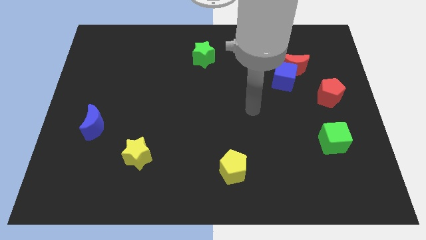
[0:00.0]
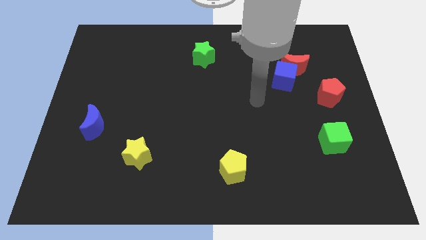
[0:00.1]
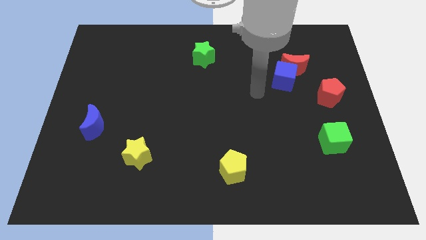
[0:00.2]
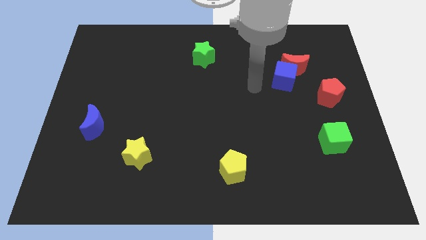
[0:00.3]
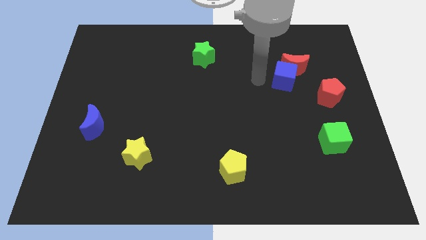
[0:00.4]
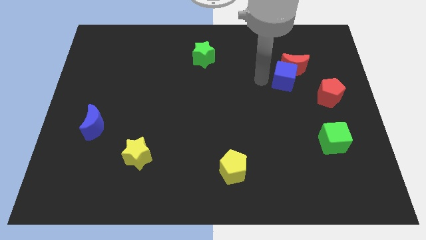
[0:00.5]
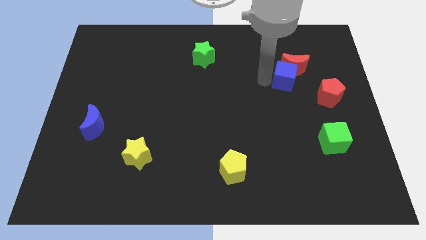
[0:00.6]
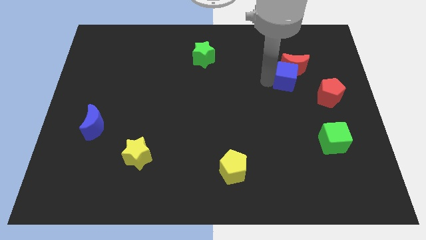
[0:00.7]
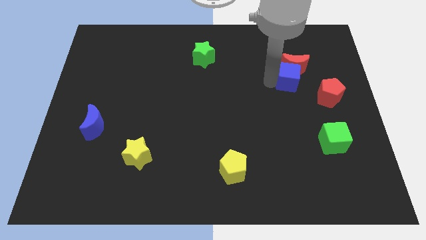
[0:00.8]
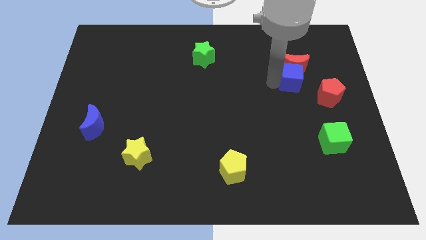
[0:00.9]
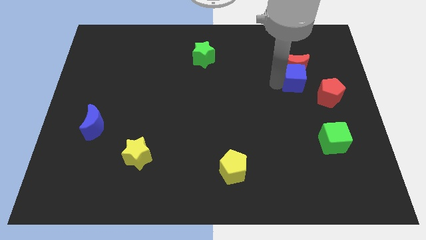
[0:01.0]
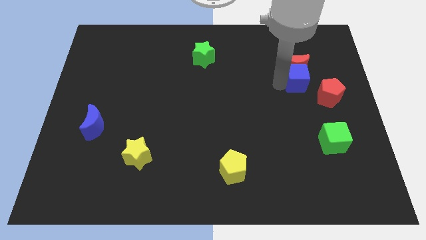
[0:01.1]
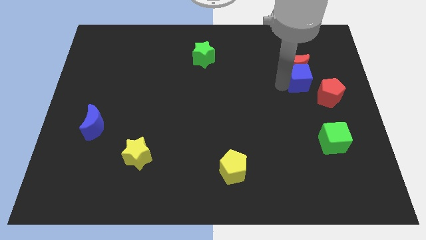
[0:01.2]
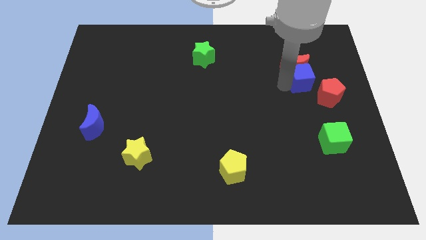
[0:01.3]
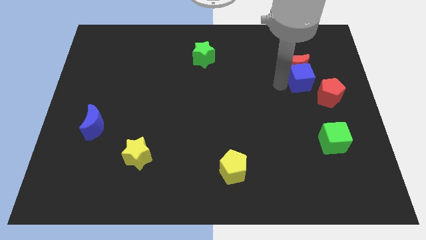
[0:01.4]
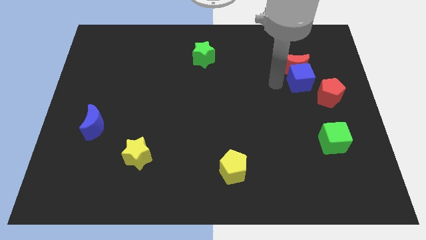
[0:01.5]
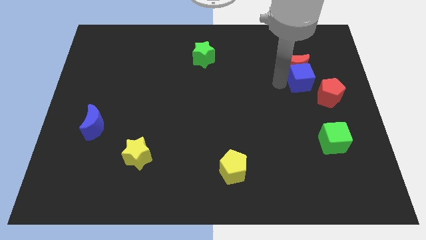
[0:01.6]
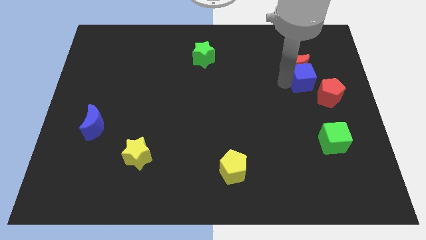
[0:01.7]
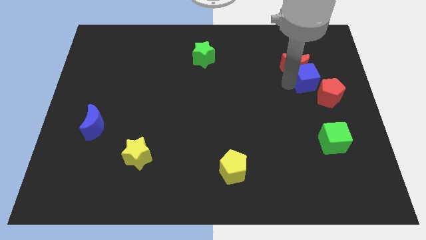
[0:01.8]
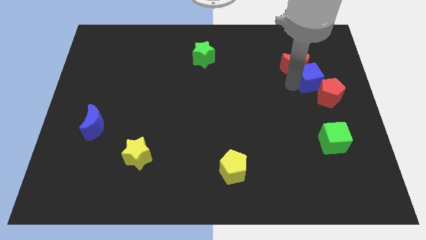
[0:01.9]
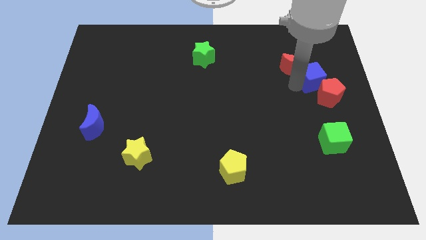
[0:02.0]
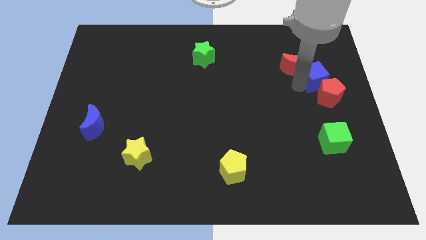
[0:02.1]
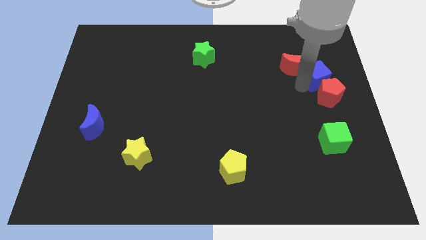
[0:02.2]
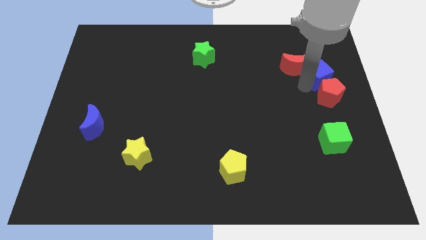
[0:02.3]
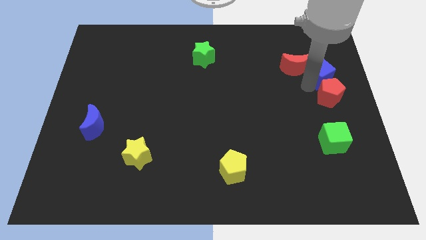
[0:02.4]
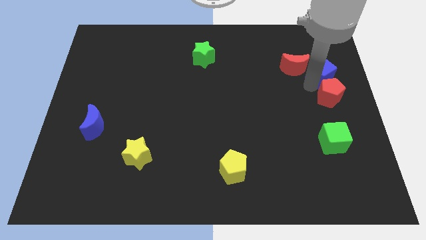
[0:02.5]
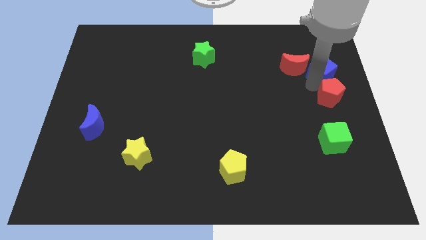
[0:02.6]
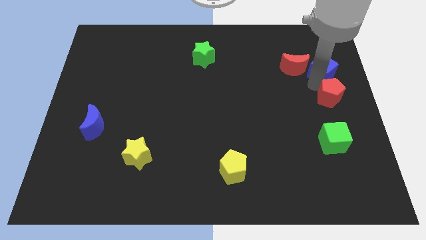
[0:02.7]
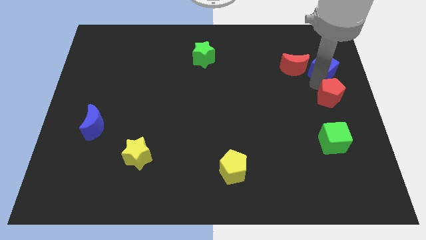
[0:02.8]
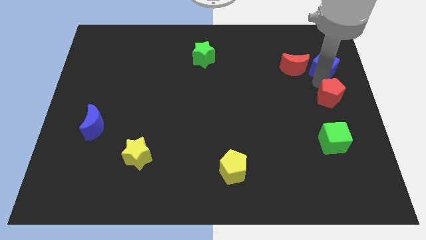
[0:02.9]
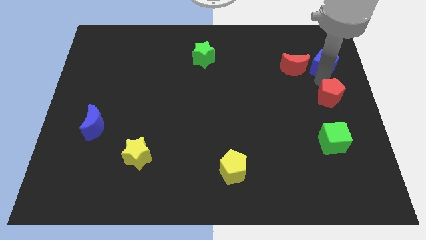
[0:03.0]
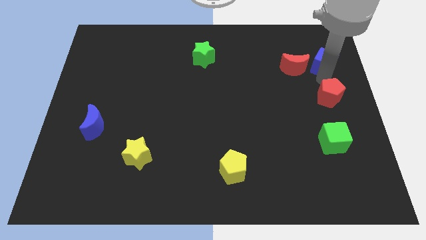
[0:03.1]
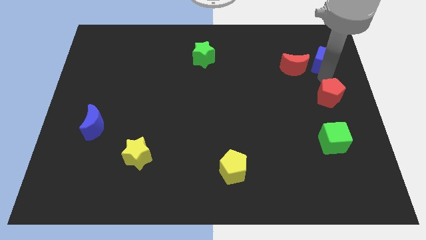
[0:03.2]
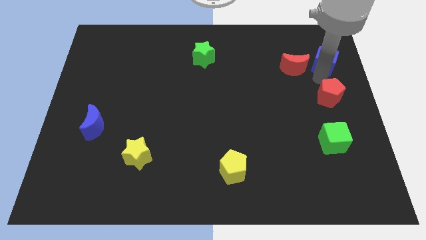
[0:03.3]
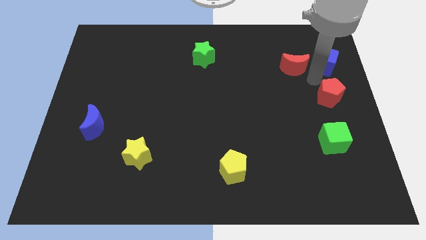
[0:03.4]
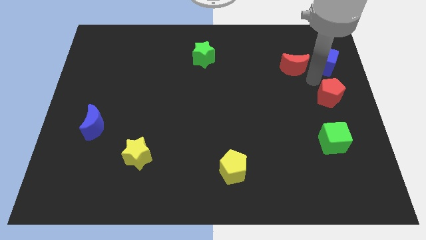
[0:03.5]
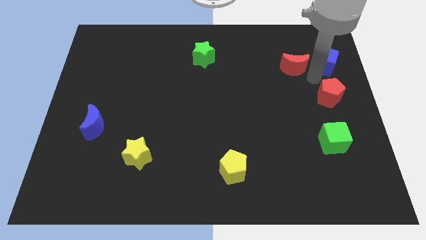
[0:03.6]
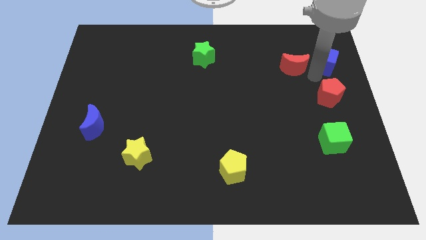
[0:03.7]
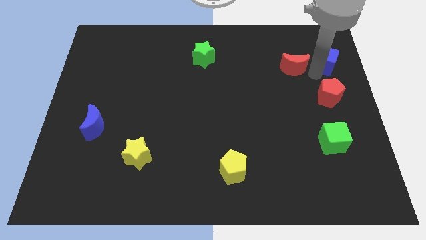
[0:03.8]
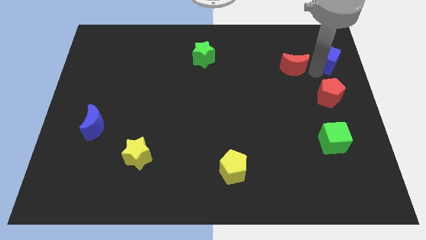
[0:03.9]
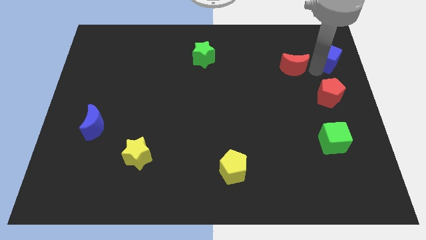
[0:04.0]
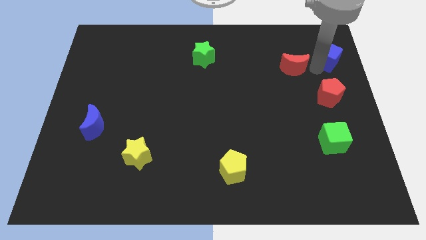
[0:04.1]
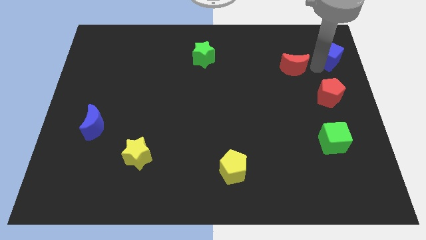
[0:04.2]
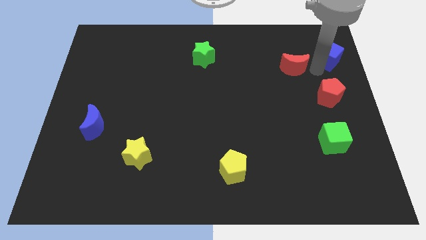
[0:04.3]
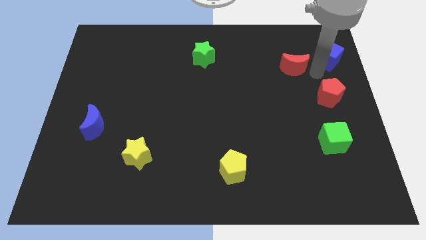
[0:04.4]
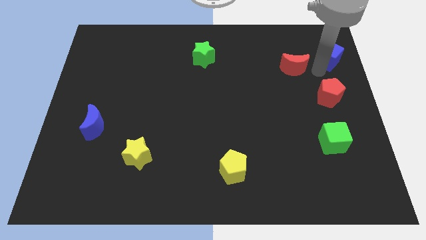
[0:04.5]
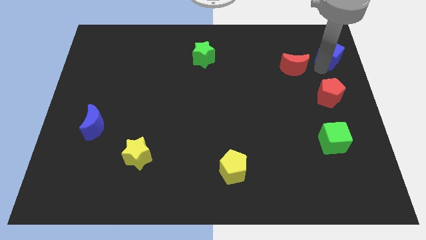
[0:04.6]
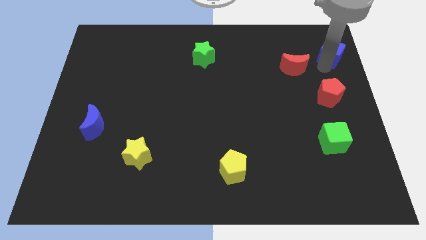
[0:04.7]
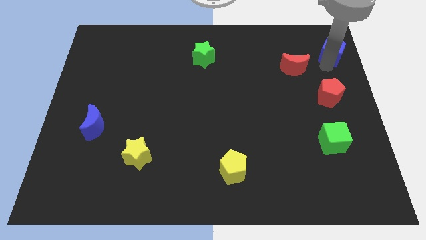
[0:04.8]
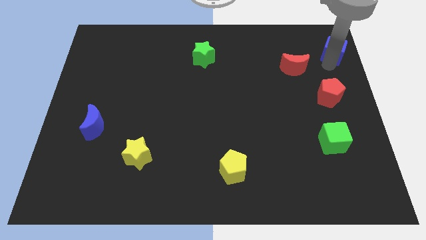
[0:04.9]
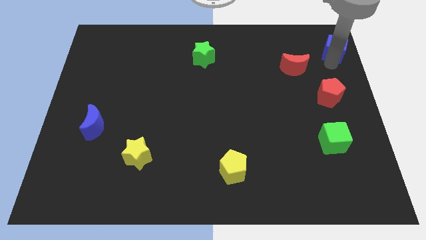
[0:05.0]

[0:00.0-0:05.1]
slide the blue cube to the upper right corner

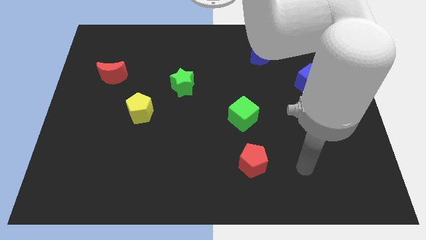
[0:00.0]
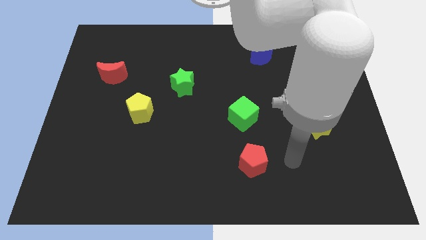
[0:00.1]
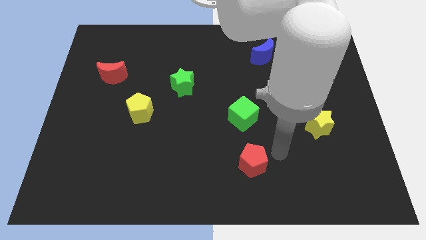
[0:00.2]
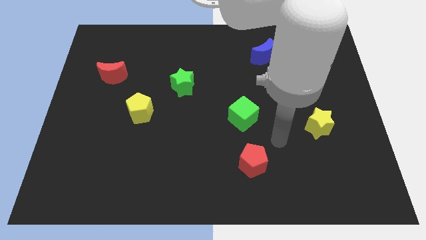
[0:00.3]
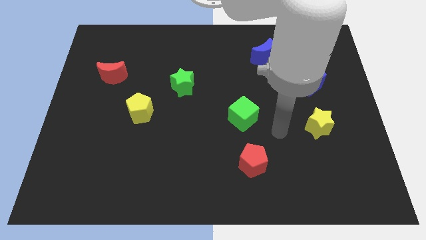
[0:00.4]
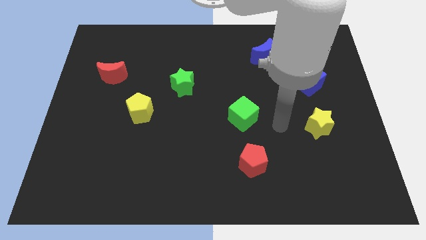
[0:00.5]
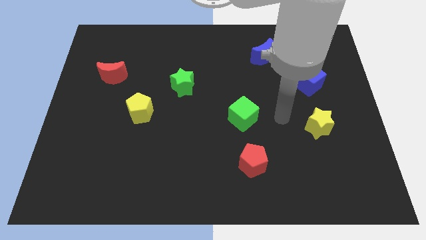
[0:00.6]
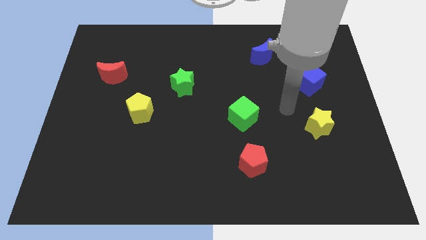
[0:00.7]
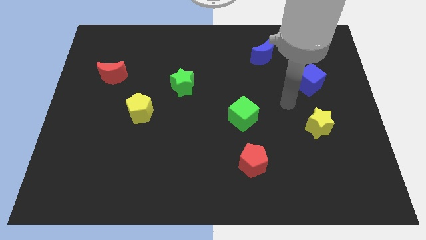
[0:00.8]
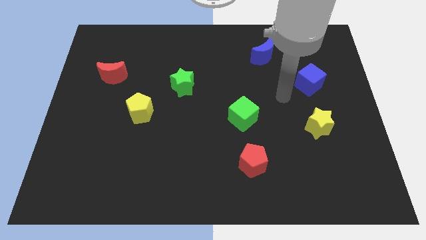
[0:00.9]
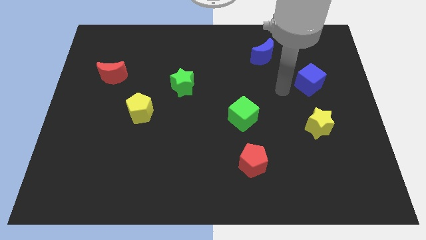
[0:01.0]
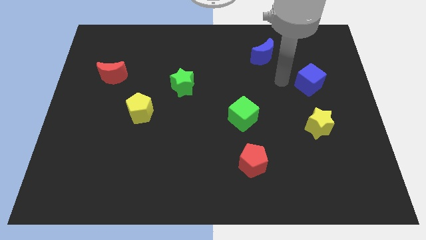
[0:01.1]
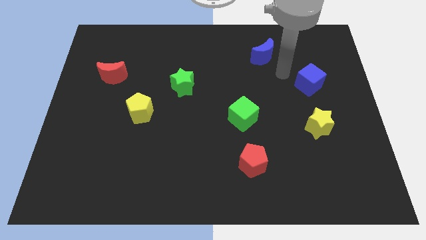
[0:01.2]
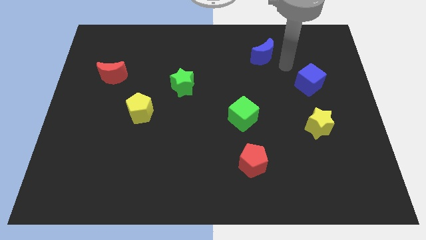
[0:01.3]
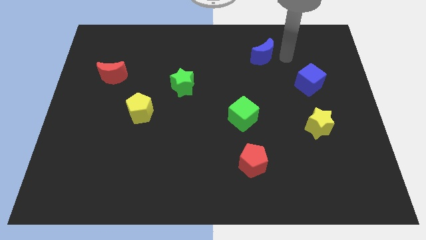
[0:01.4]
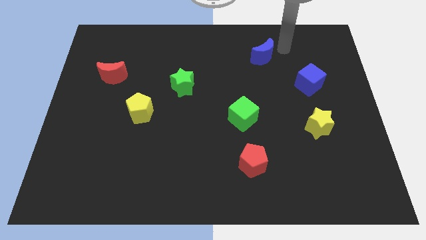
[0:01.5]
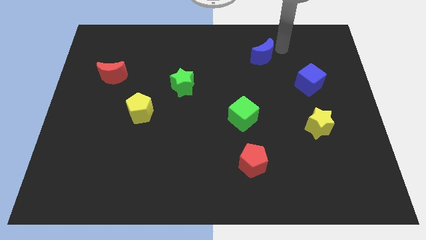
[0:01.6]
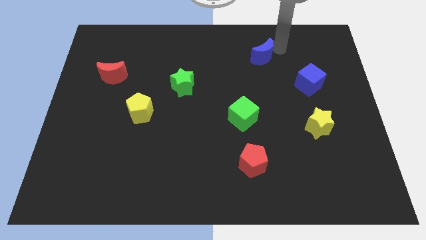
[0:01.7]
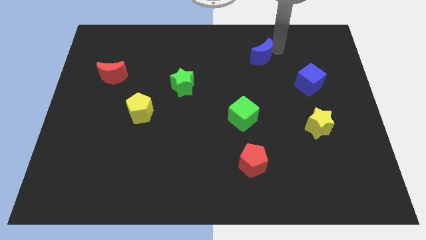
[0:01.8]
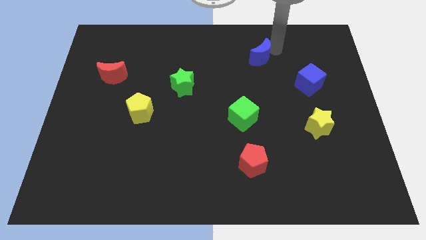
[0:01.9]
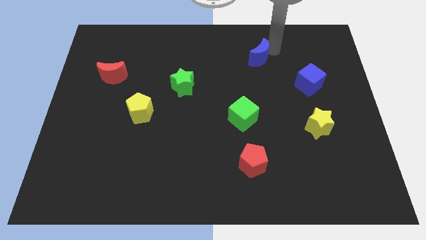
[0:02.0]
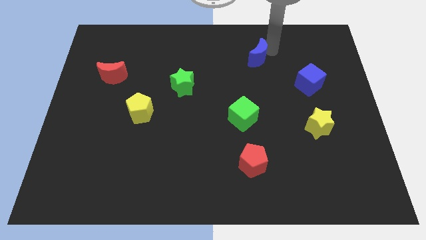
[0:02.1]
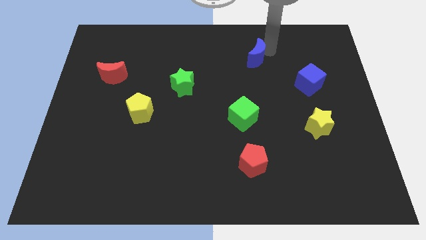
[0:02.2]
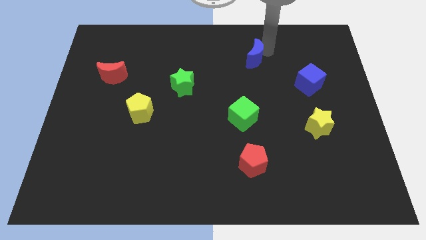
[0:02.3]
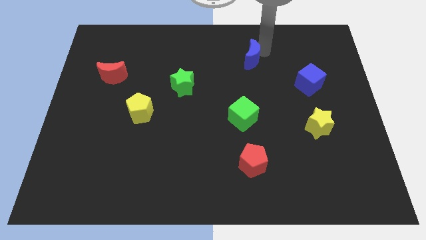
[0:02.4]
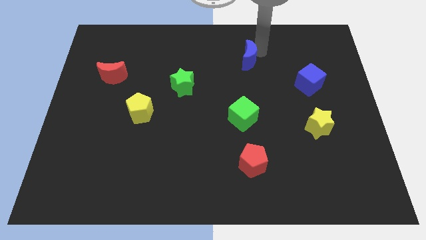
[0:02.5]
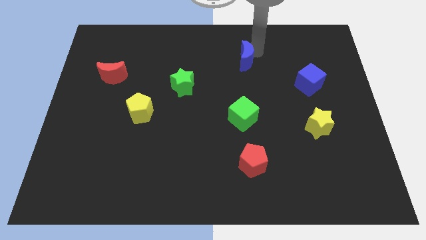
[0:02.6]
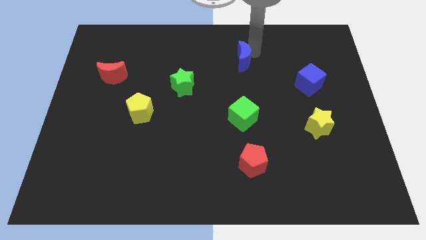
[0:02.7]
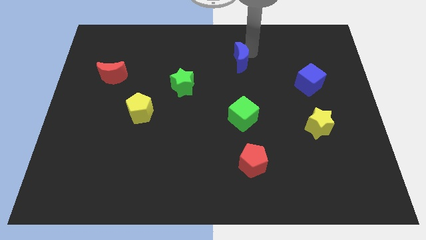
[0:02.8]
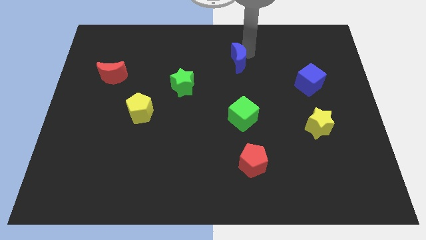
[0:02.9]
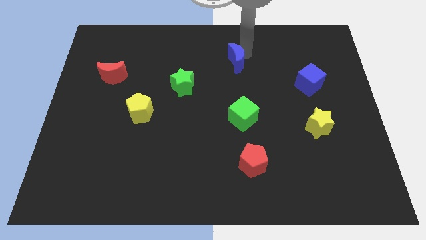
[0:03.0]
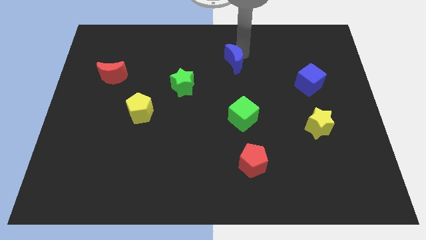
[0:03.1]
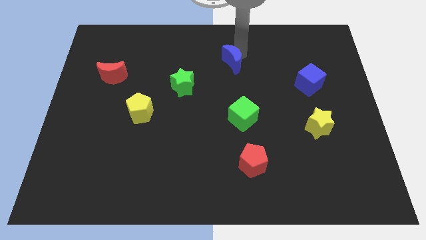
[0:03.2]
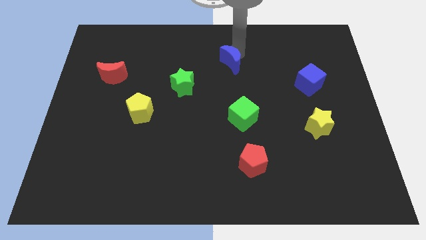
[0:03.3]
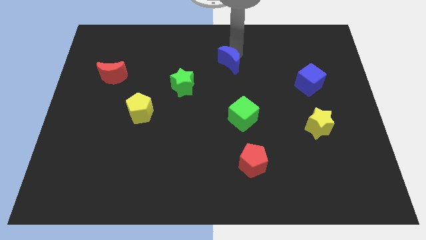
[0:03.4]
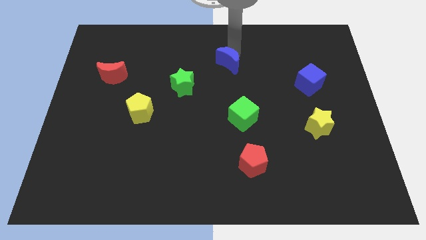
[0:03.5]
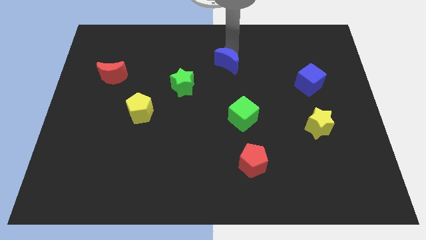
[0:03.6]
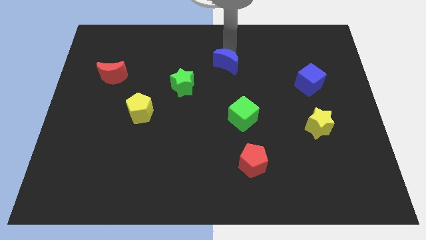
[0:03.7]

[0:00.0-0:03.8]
move the blue moon to the center
